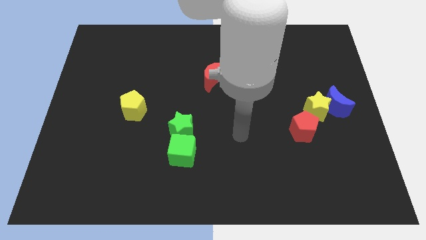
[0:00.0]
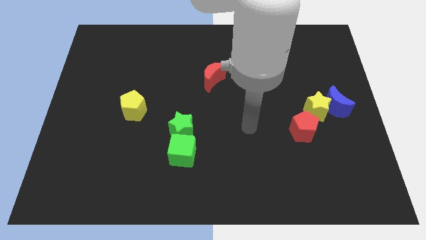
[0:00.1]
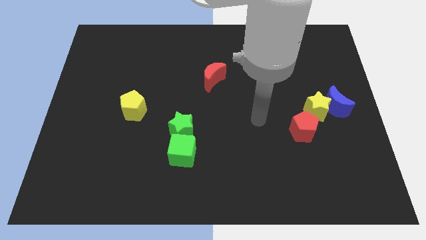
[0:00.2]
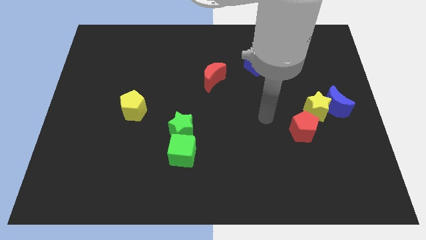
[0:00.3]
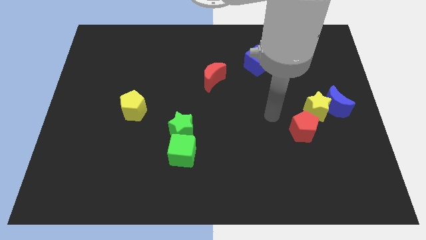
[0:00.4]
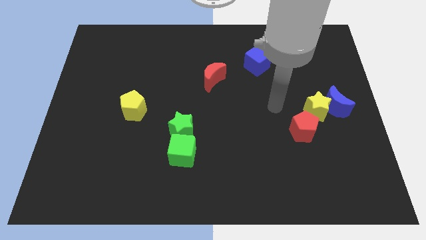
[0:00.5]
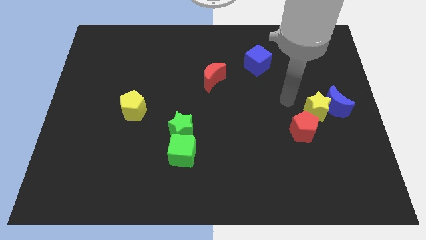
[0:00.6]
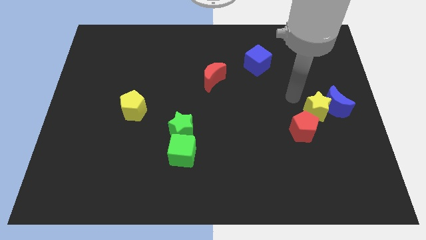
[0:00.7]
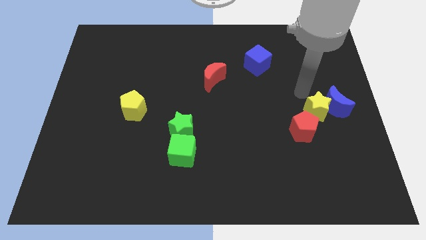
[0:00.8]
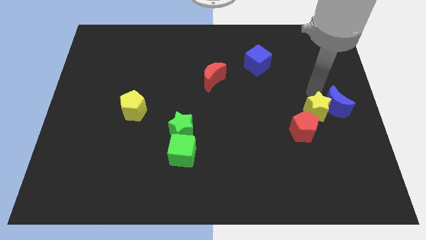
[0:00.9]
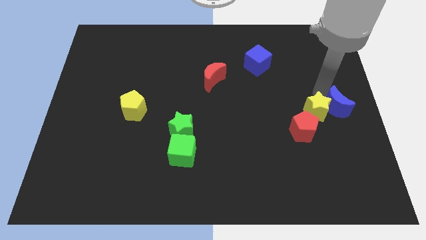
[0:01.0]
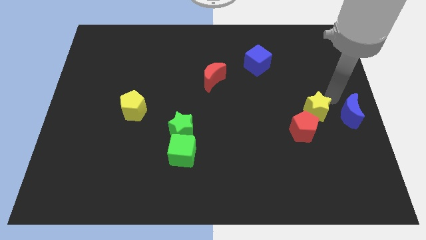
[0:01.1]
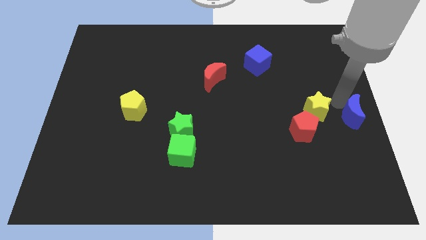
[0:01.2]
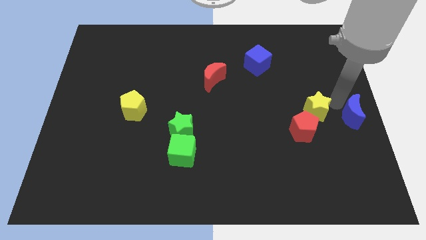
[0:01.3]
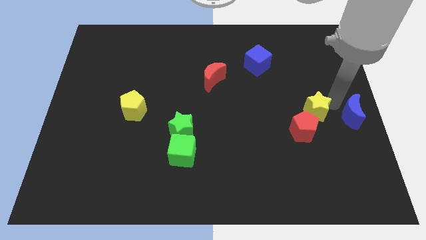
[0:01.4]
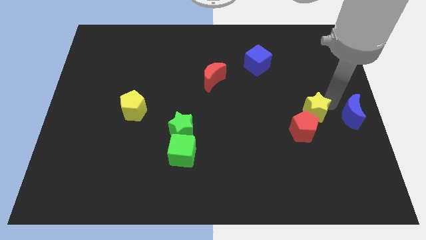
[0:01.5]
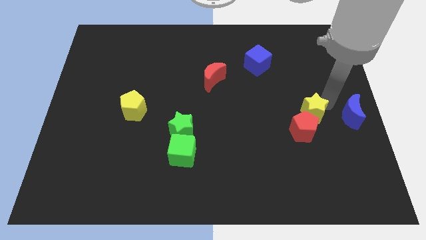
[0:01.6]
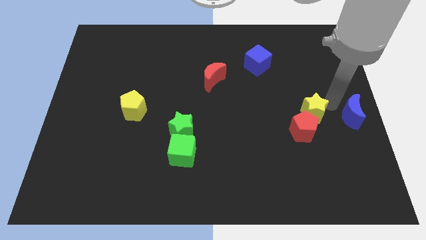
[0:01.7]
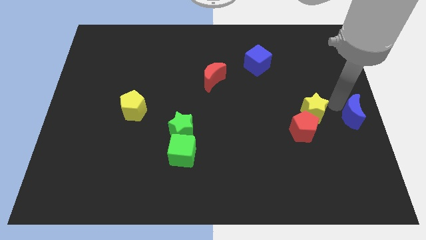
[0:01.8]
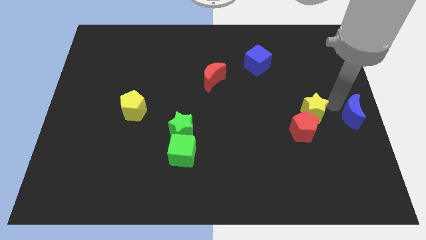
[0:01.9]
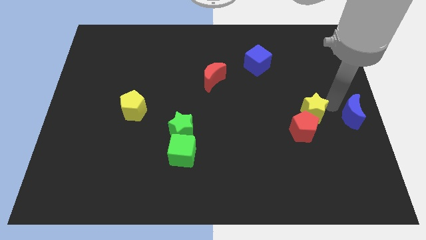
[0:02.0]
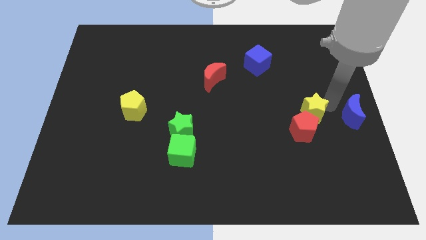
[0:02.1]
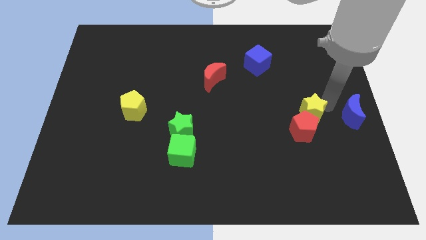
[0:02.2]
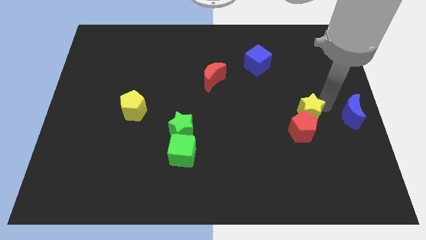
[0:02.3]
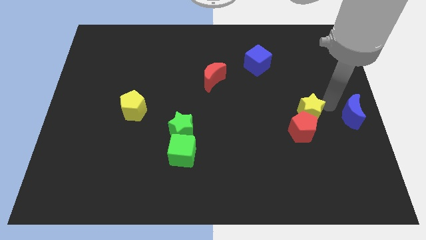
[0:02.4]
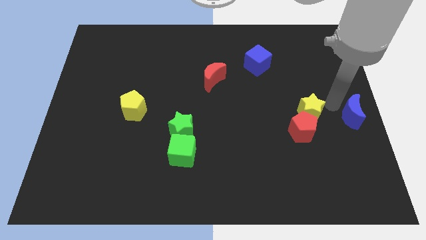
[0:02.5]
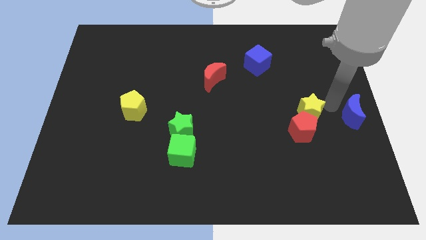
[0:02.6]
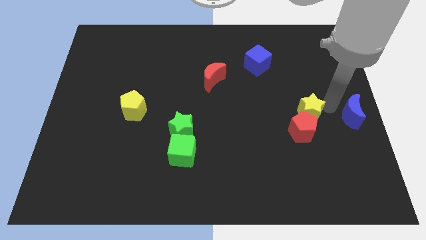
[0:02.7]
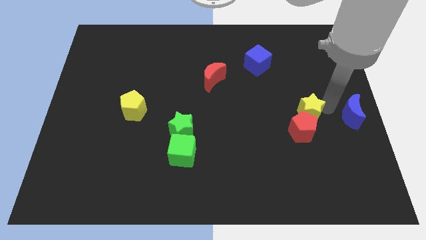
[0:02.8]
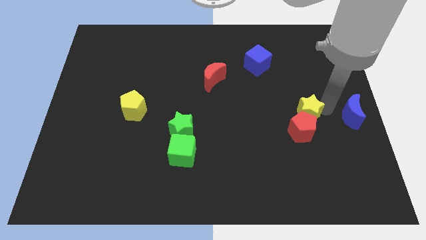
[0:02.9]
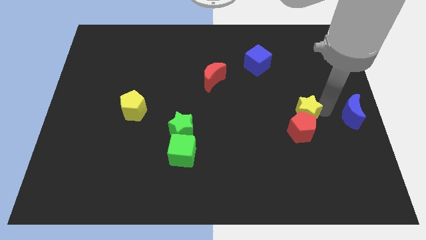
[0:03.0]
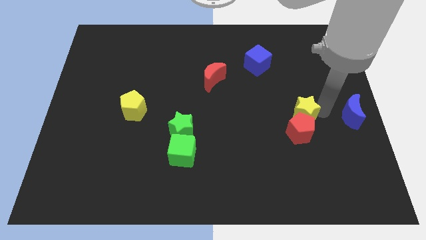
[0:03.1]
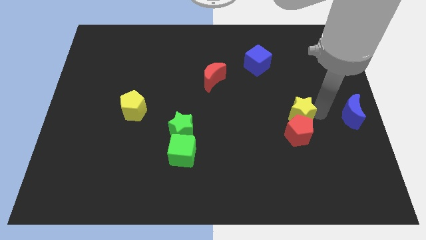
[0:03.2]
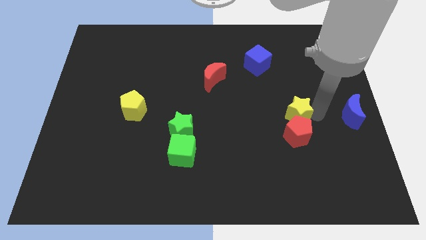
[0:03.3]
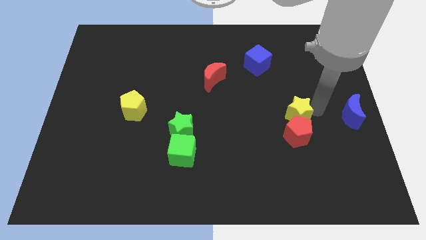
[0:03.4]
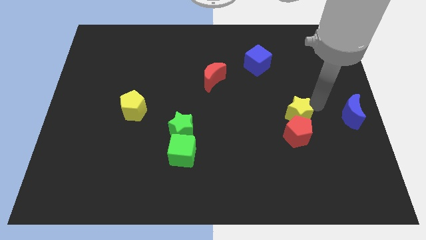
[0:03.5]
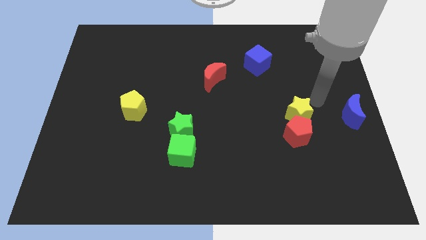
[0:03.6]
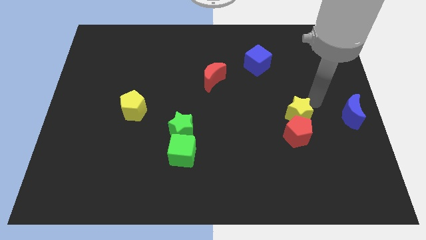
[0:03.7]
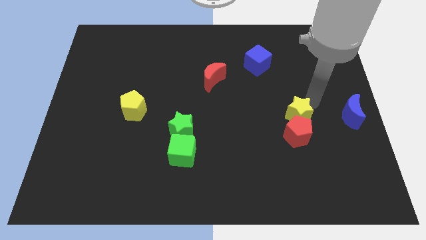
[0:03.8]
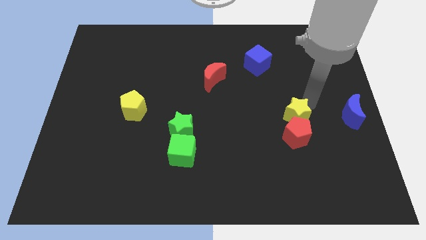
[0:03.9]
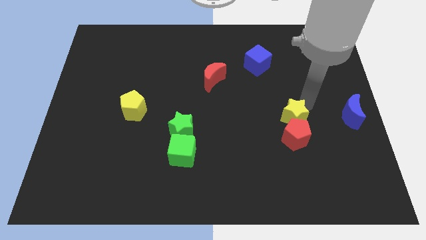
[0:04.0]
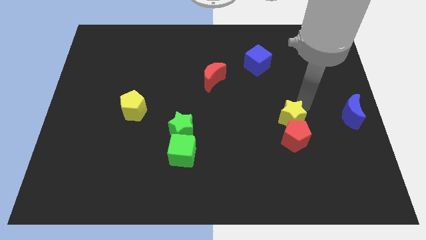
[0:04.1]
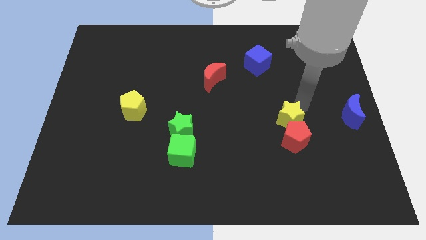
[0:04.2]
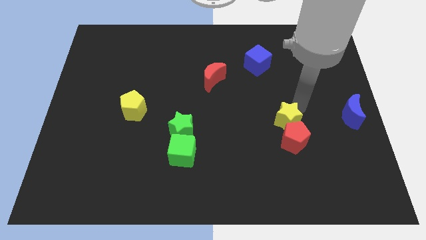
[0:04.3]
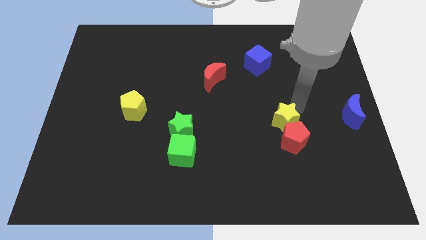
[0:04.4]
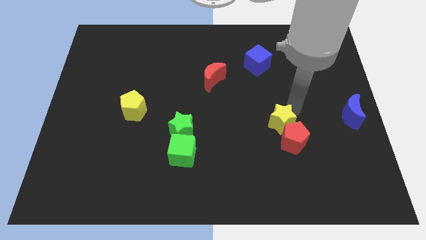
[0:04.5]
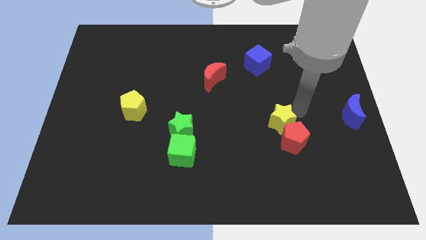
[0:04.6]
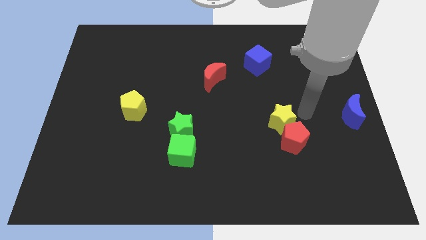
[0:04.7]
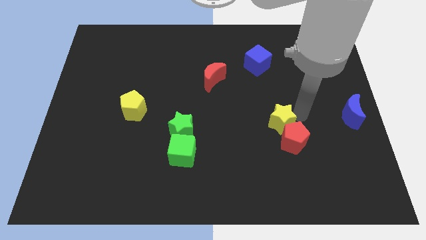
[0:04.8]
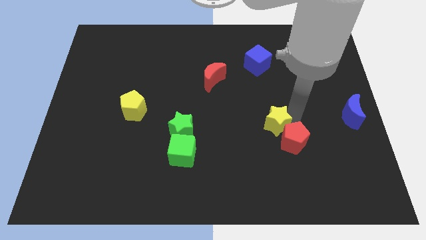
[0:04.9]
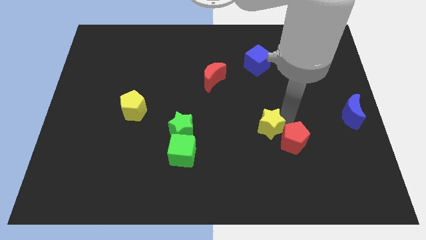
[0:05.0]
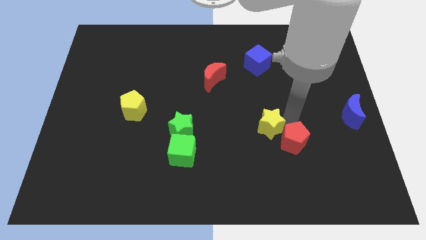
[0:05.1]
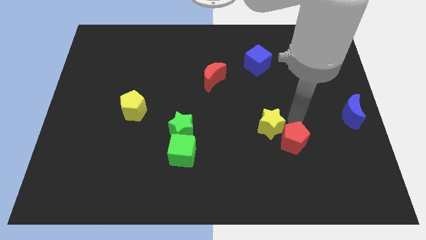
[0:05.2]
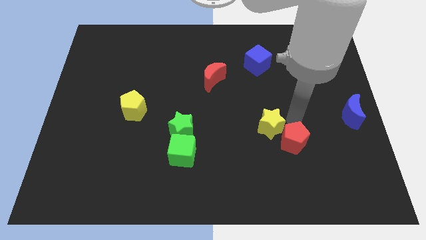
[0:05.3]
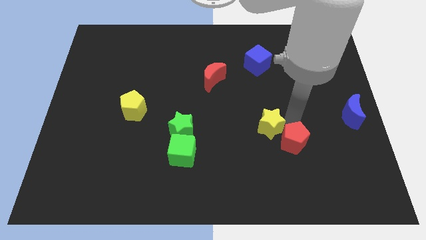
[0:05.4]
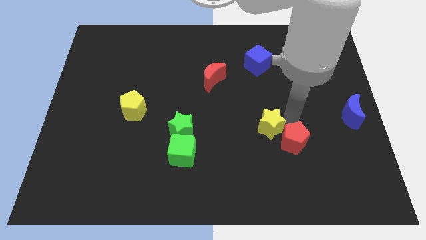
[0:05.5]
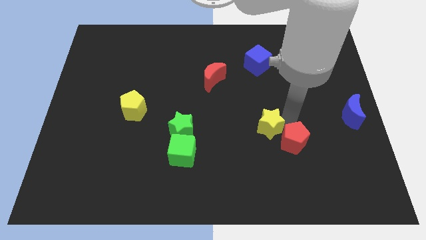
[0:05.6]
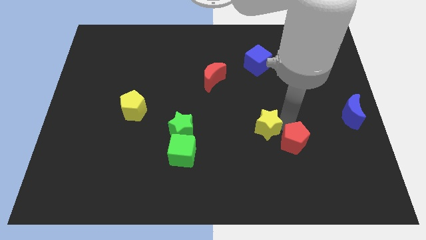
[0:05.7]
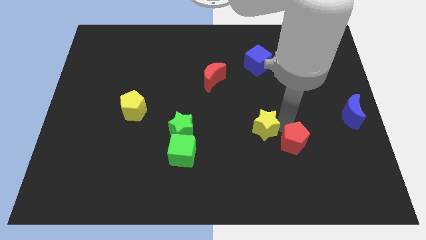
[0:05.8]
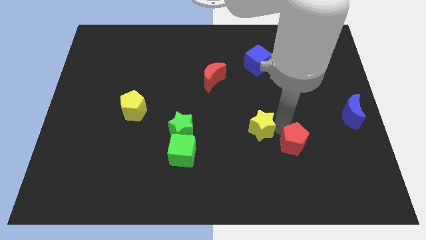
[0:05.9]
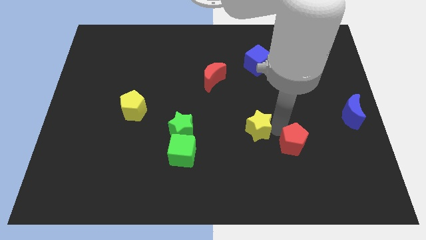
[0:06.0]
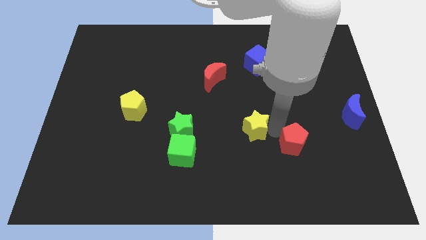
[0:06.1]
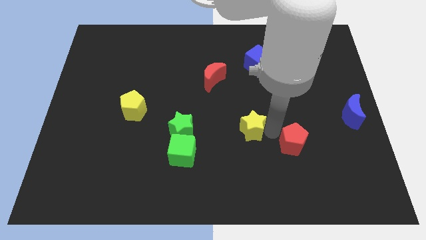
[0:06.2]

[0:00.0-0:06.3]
put the yellow star to the right side of the green star
